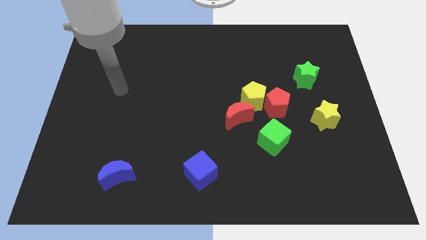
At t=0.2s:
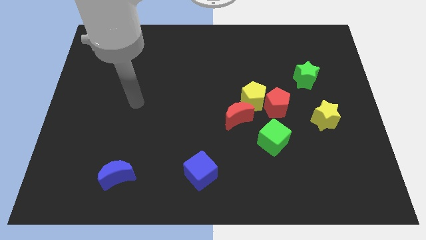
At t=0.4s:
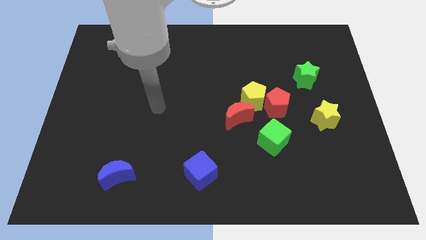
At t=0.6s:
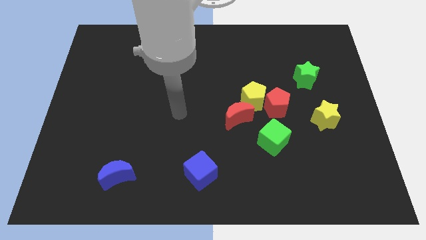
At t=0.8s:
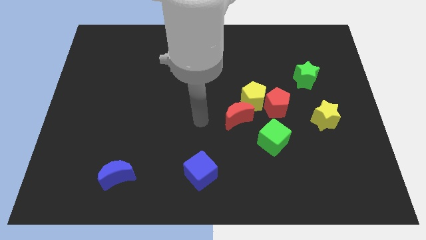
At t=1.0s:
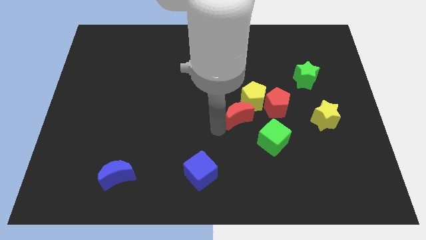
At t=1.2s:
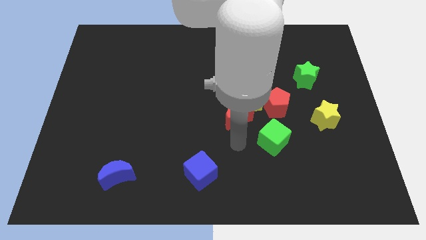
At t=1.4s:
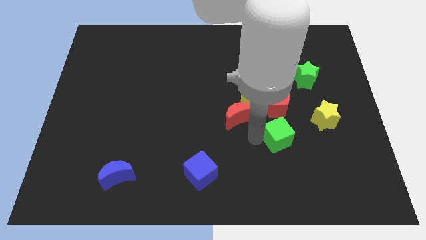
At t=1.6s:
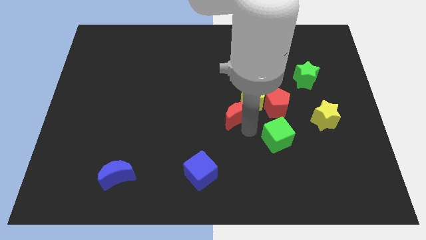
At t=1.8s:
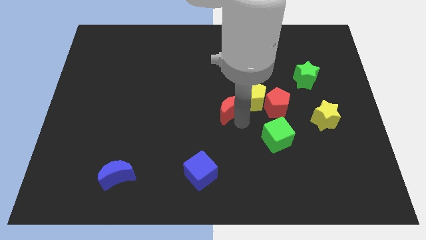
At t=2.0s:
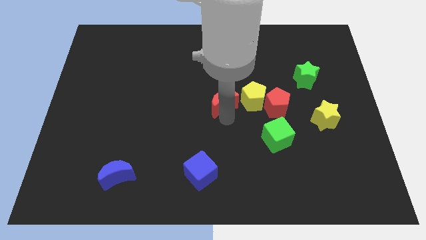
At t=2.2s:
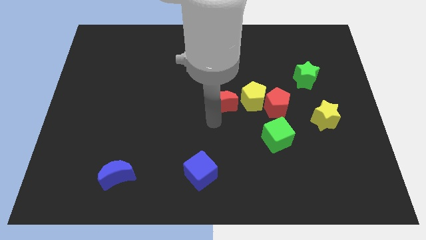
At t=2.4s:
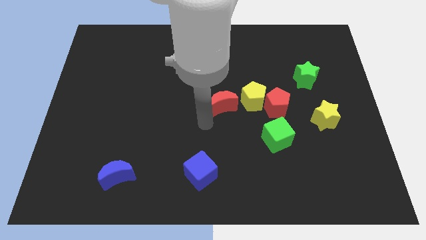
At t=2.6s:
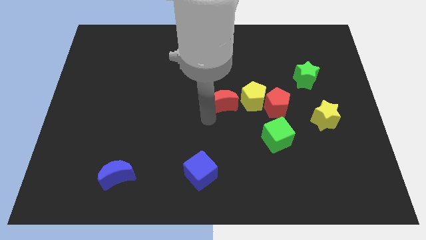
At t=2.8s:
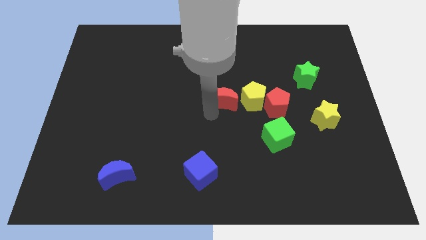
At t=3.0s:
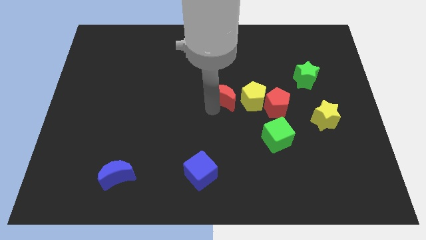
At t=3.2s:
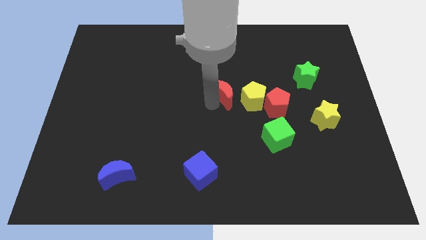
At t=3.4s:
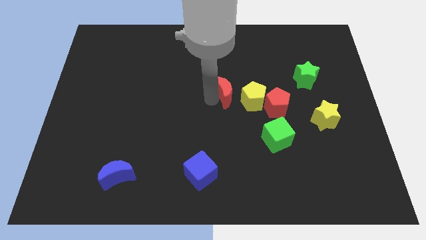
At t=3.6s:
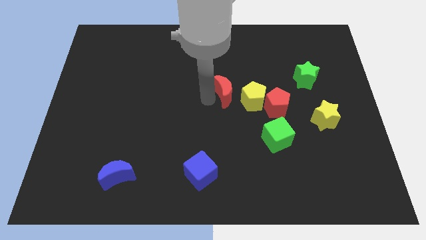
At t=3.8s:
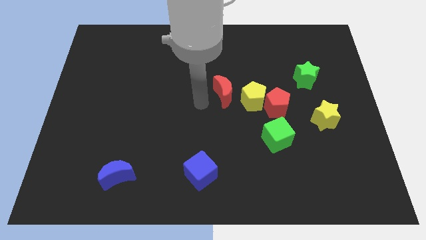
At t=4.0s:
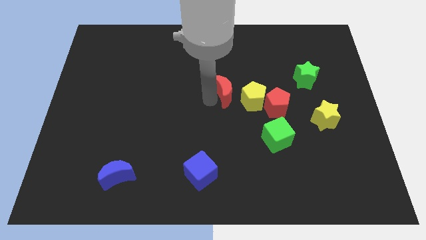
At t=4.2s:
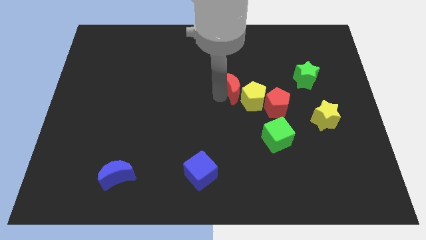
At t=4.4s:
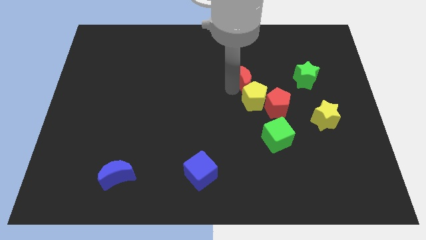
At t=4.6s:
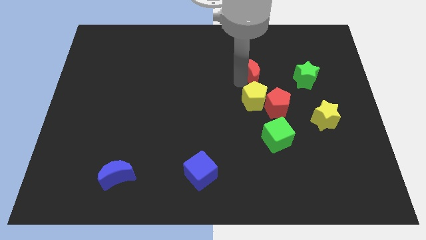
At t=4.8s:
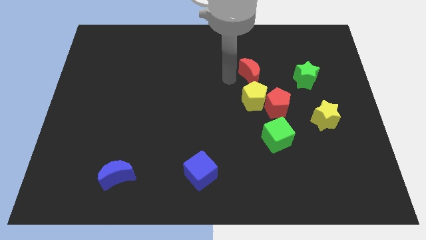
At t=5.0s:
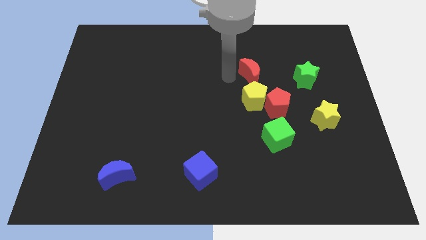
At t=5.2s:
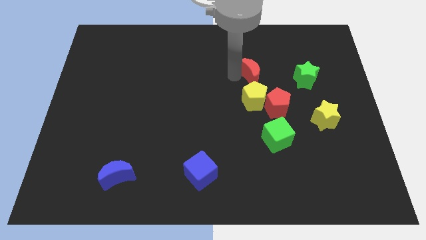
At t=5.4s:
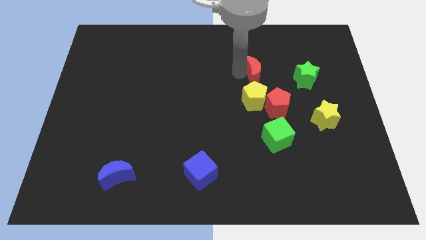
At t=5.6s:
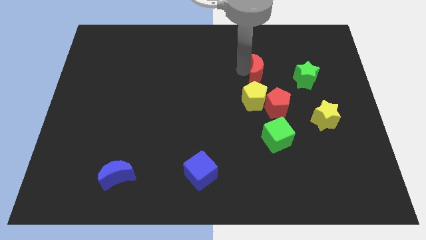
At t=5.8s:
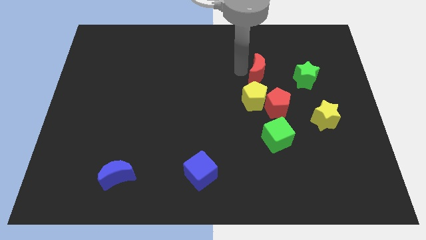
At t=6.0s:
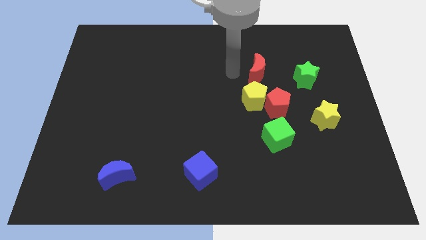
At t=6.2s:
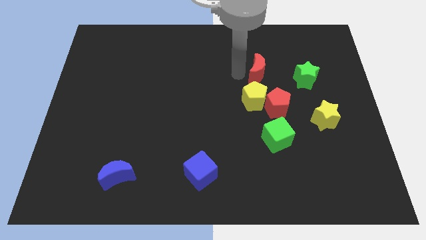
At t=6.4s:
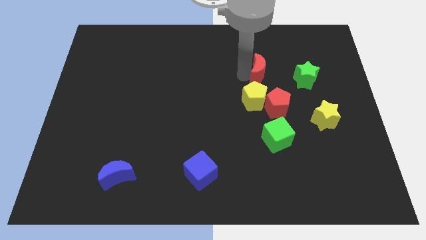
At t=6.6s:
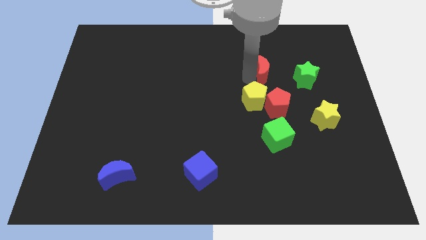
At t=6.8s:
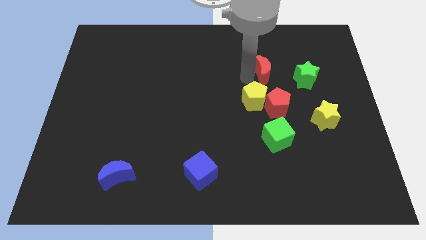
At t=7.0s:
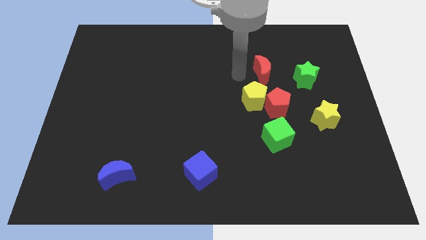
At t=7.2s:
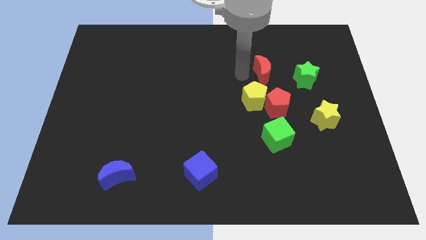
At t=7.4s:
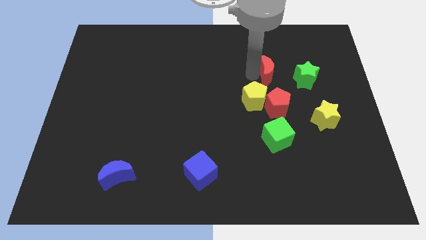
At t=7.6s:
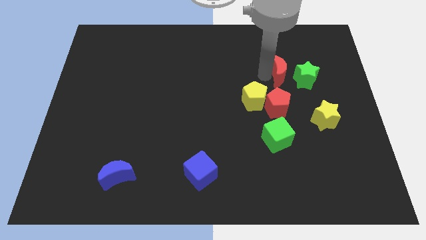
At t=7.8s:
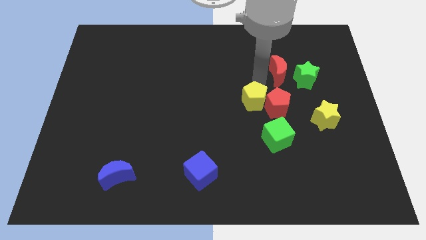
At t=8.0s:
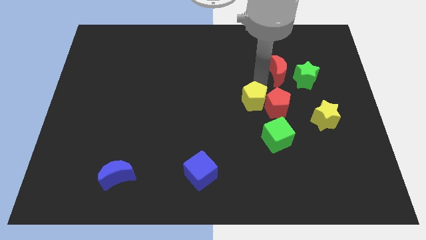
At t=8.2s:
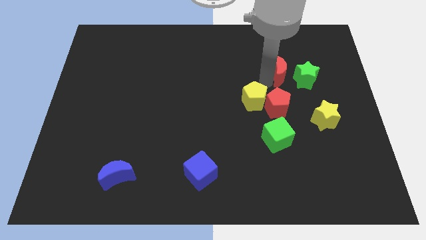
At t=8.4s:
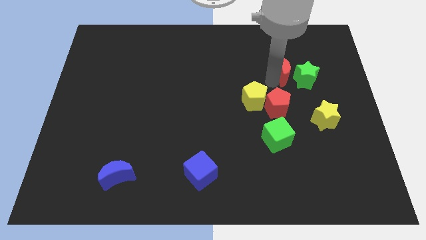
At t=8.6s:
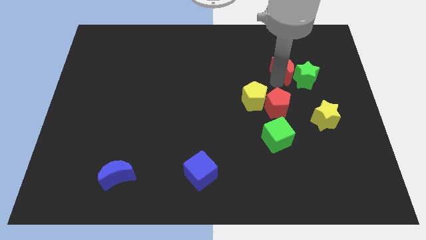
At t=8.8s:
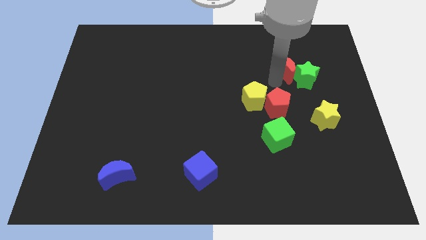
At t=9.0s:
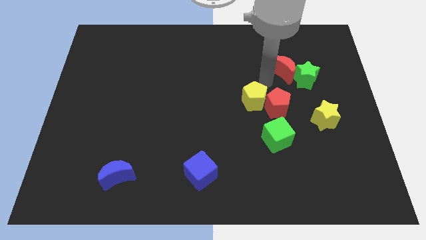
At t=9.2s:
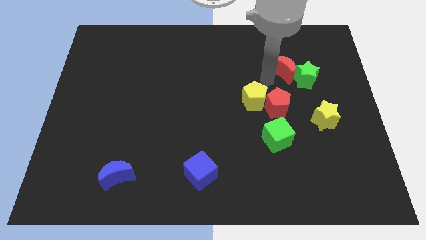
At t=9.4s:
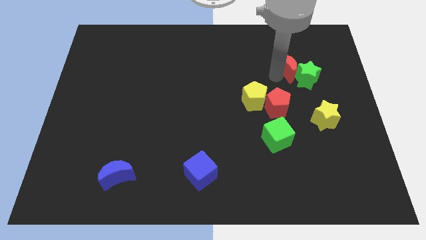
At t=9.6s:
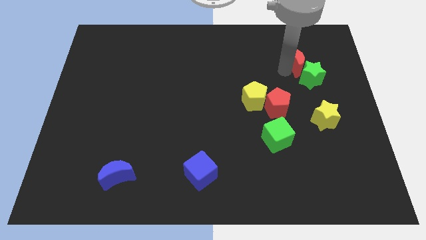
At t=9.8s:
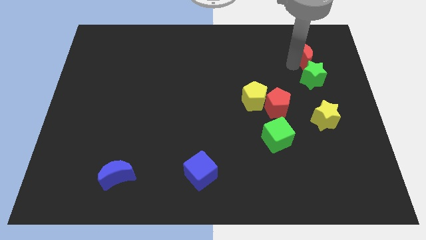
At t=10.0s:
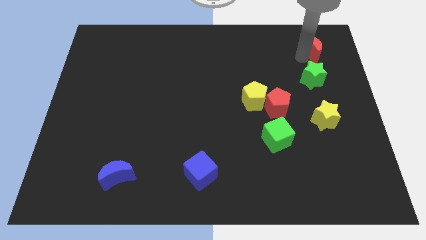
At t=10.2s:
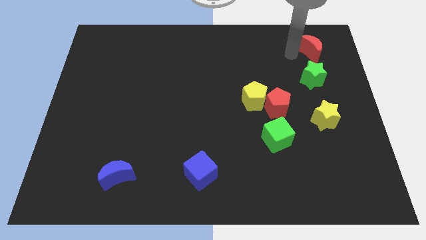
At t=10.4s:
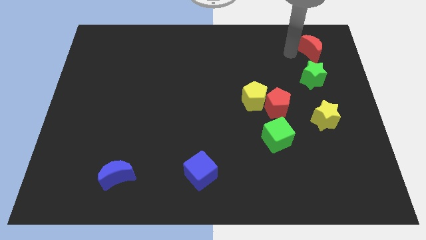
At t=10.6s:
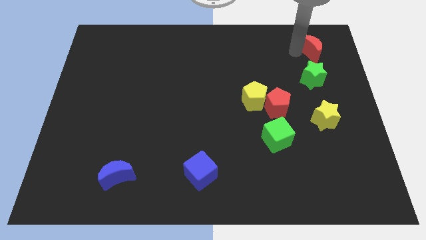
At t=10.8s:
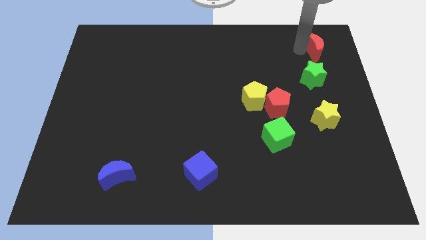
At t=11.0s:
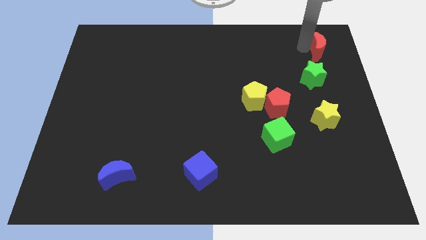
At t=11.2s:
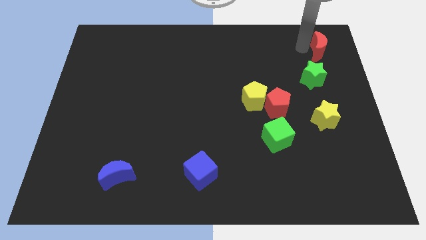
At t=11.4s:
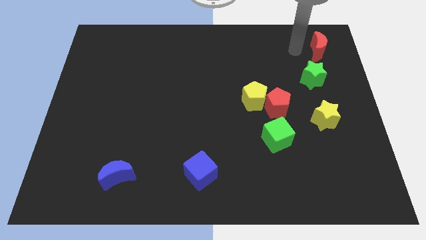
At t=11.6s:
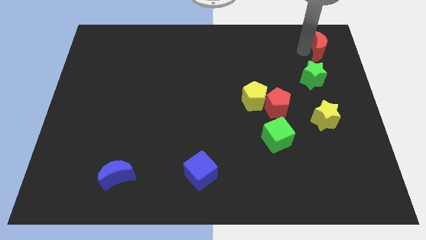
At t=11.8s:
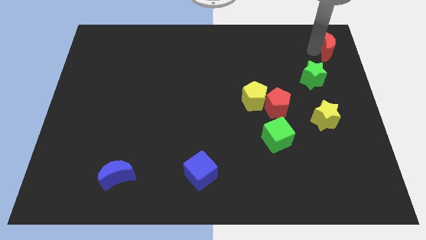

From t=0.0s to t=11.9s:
push the red moon to the upper right corner
